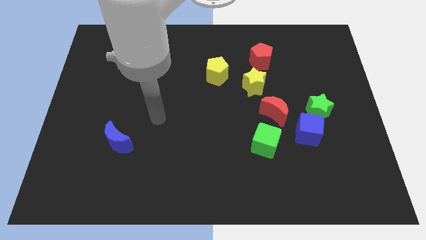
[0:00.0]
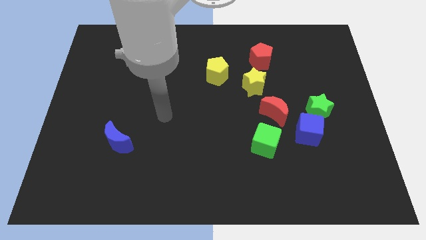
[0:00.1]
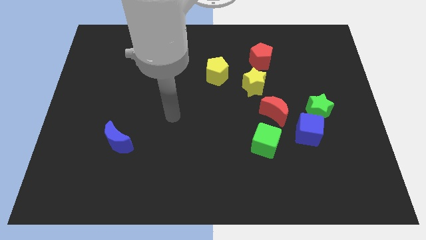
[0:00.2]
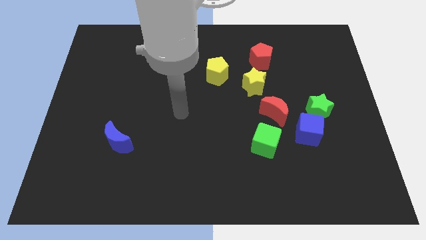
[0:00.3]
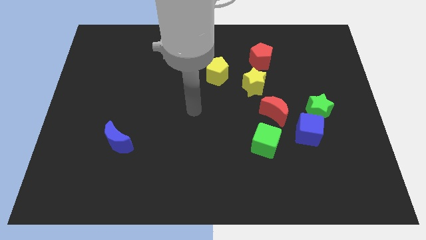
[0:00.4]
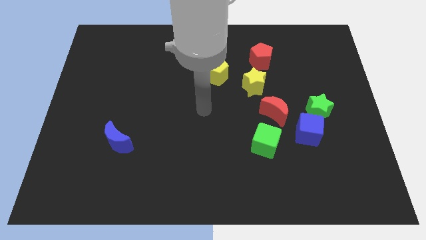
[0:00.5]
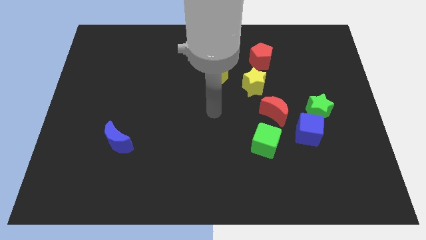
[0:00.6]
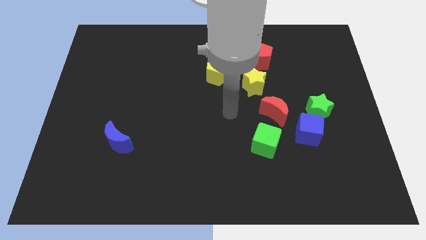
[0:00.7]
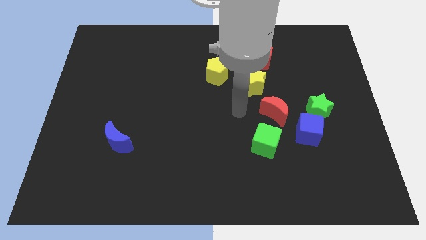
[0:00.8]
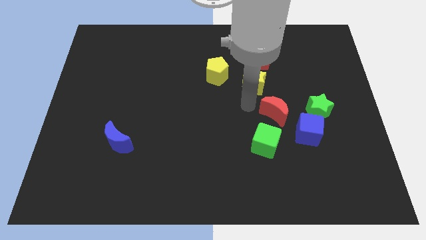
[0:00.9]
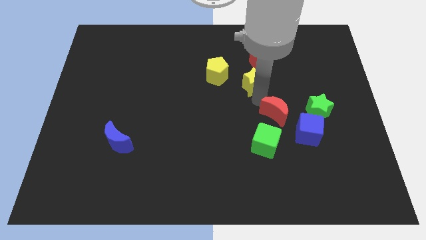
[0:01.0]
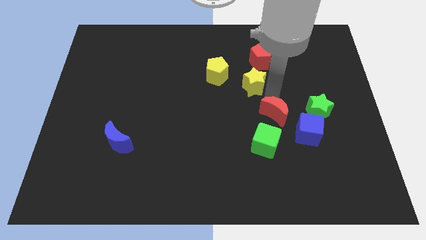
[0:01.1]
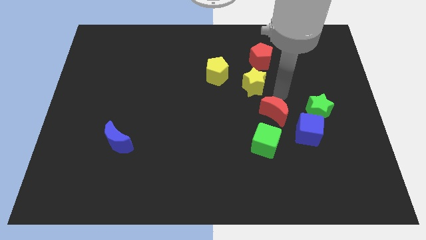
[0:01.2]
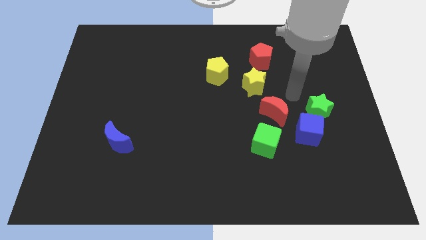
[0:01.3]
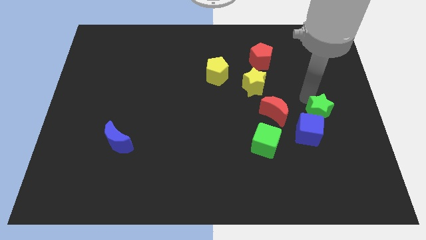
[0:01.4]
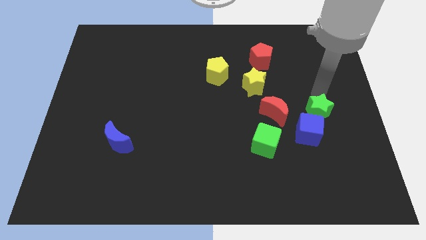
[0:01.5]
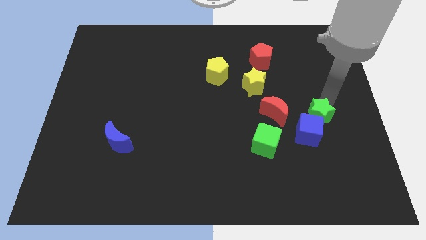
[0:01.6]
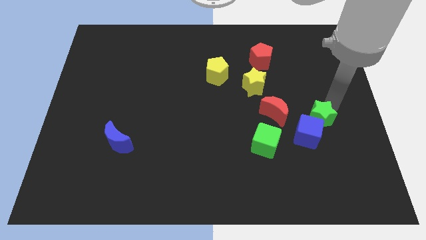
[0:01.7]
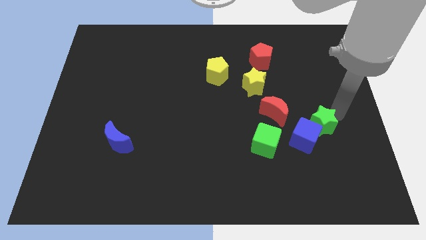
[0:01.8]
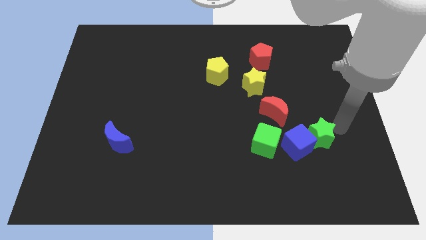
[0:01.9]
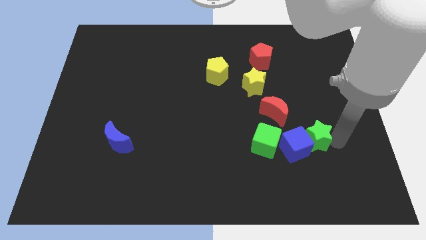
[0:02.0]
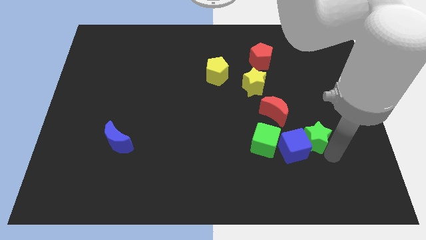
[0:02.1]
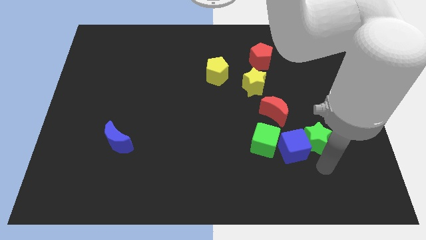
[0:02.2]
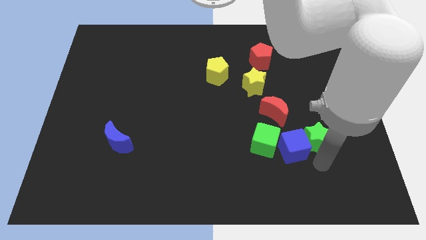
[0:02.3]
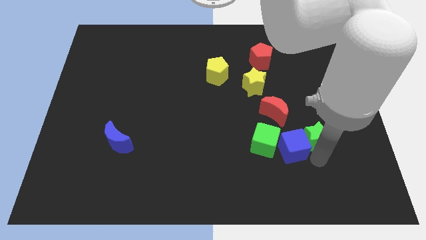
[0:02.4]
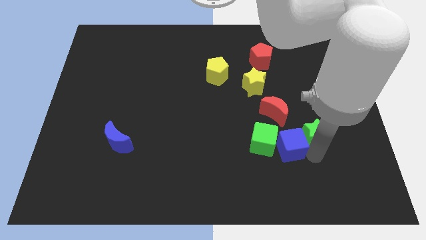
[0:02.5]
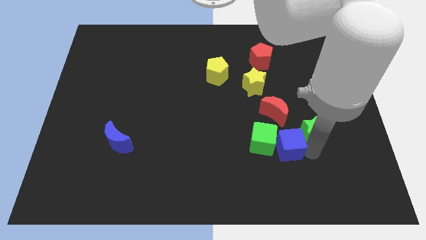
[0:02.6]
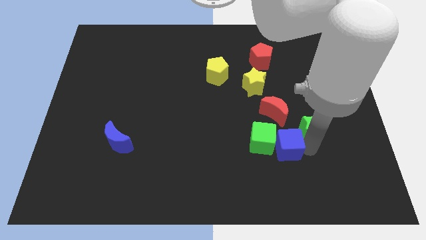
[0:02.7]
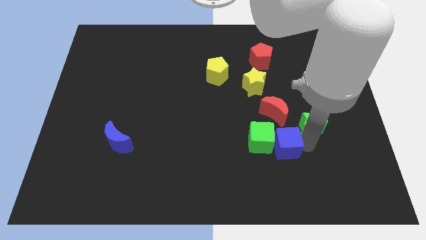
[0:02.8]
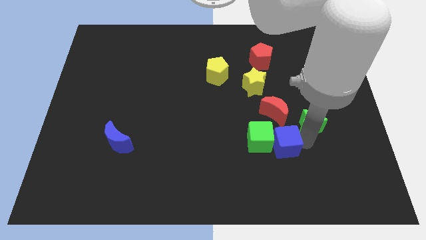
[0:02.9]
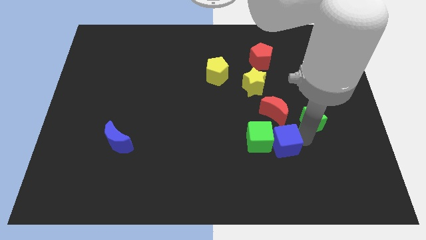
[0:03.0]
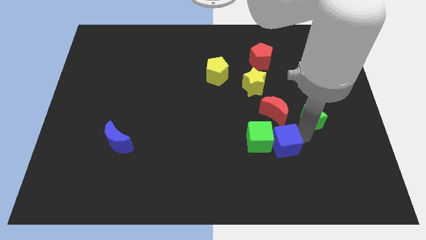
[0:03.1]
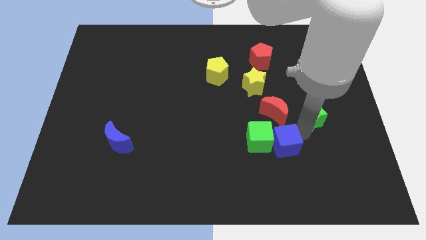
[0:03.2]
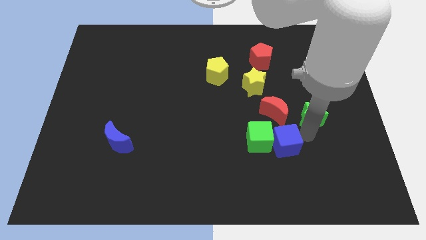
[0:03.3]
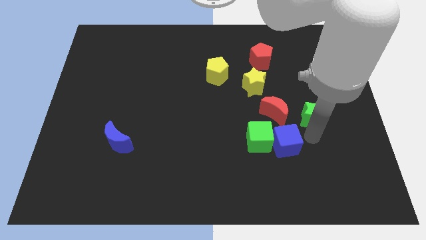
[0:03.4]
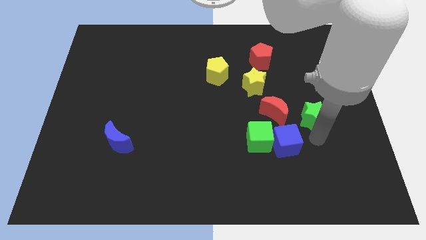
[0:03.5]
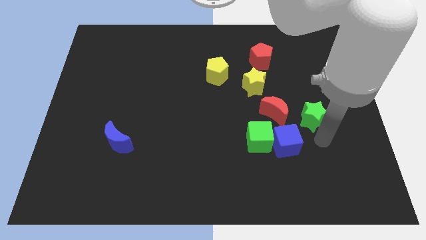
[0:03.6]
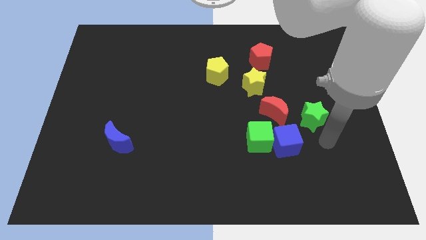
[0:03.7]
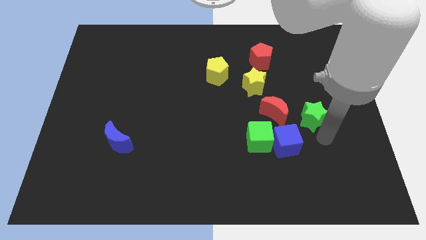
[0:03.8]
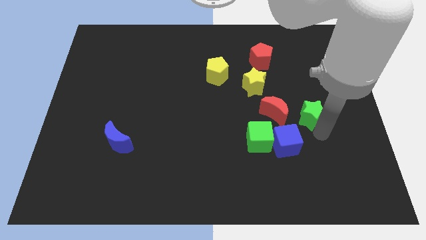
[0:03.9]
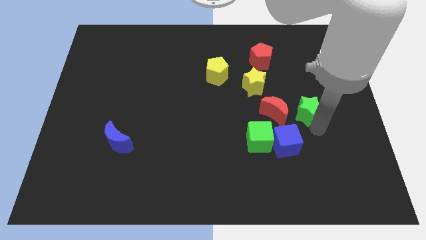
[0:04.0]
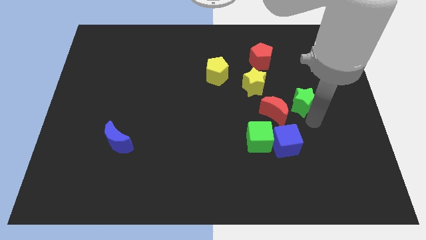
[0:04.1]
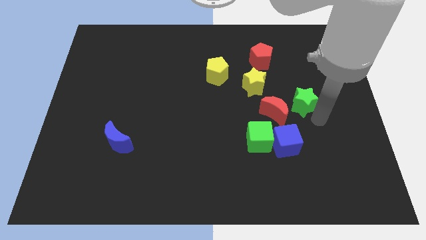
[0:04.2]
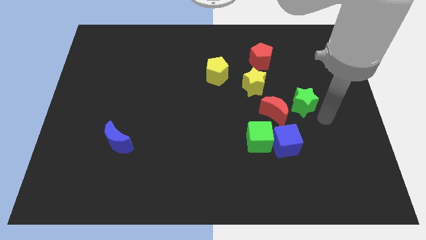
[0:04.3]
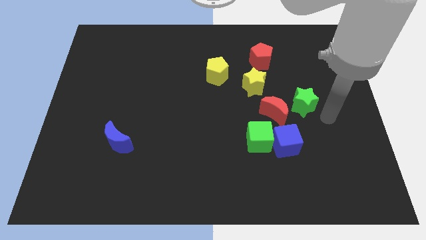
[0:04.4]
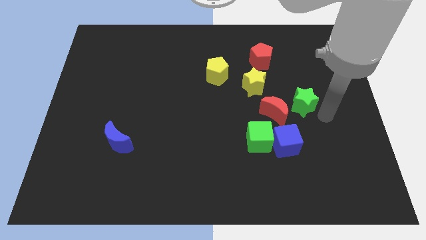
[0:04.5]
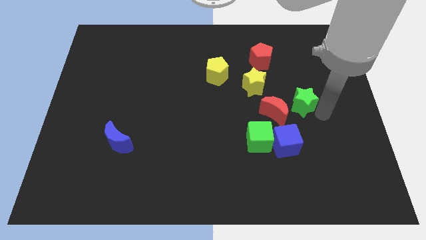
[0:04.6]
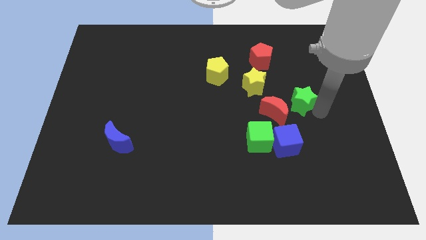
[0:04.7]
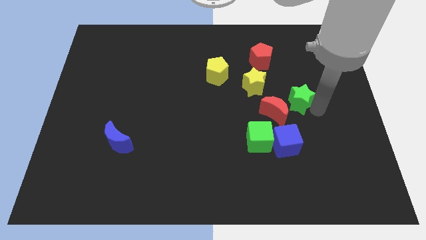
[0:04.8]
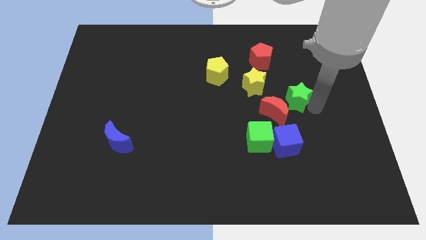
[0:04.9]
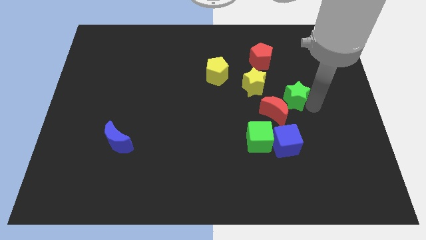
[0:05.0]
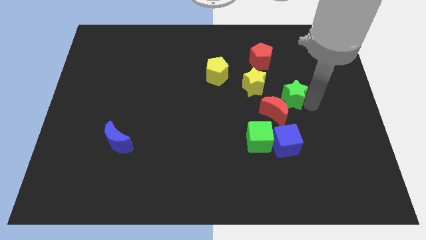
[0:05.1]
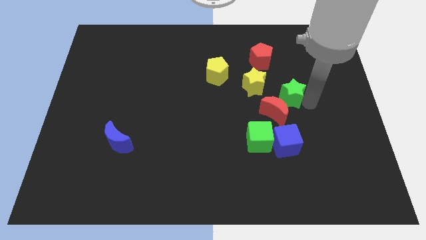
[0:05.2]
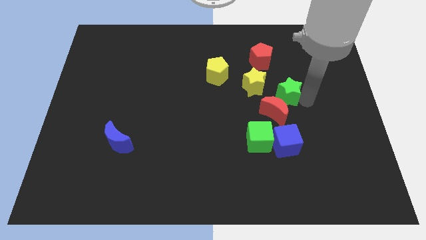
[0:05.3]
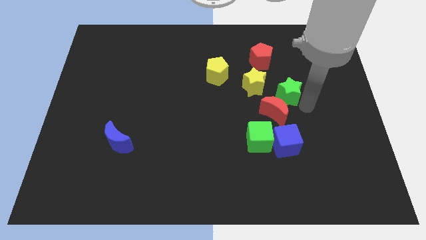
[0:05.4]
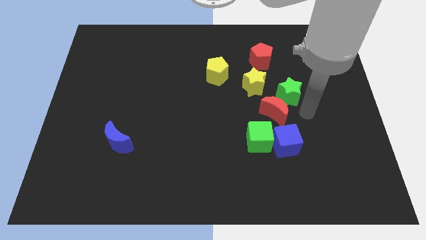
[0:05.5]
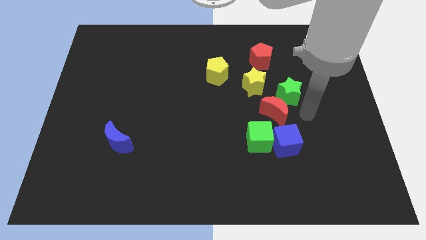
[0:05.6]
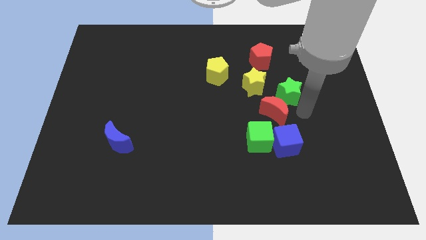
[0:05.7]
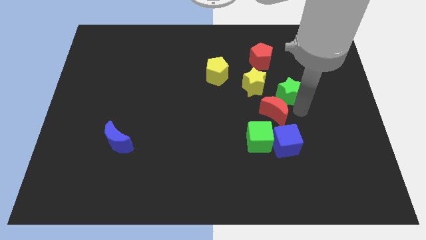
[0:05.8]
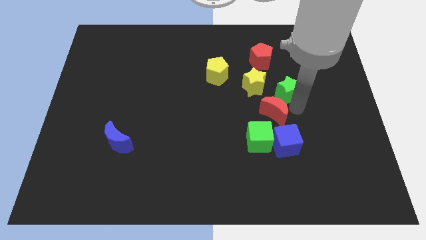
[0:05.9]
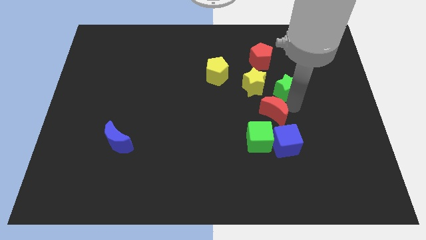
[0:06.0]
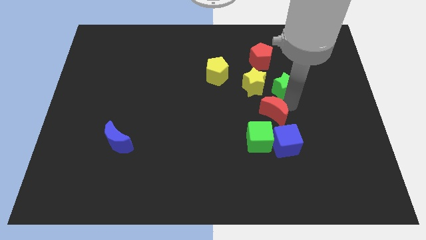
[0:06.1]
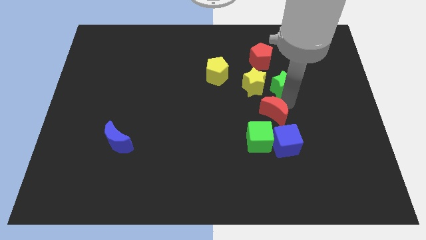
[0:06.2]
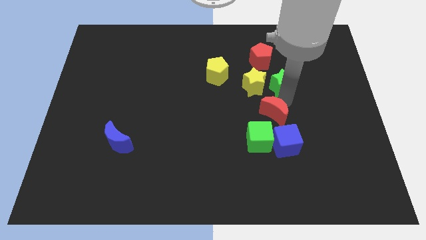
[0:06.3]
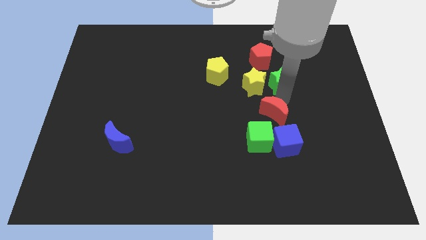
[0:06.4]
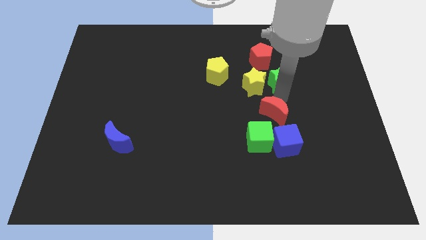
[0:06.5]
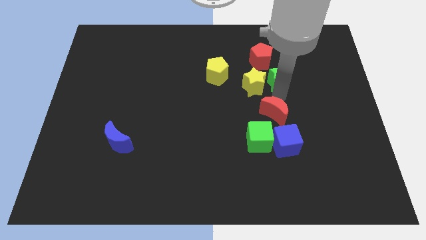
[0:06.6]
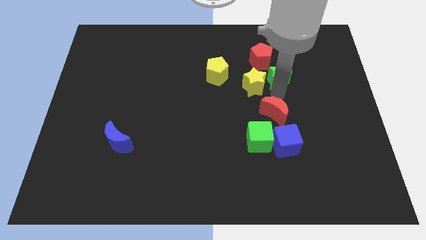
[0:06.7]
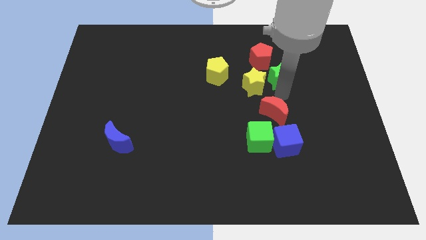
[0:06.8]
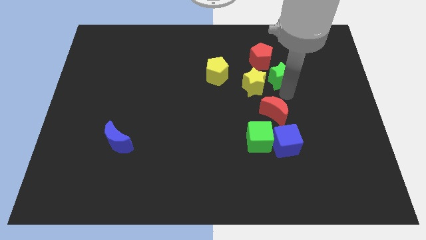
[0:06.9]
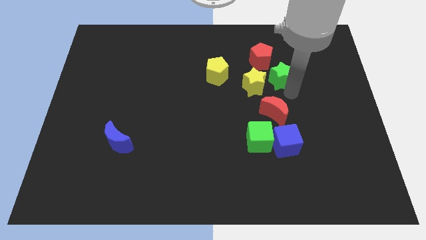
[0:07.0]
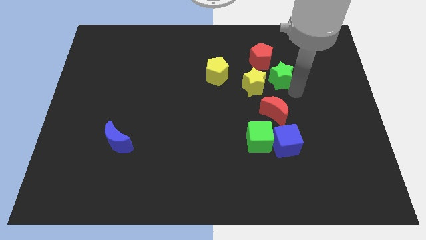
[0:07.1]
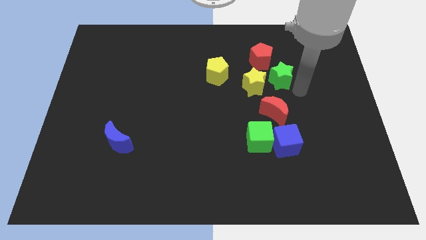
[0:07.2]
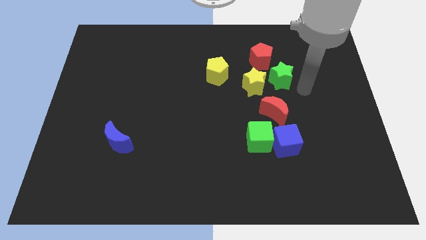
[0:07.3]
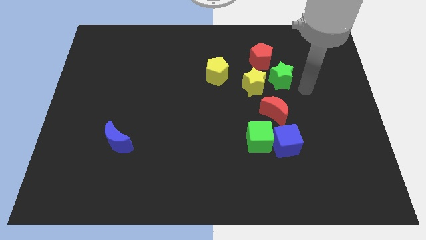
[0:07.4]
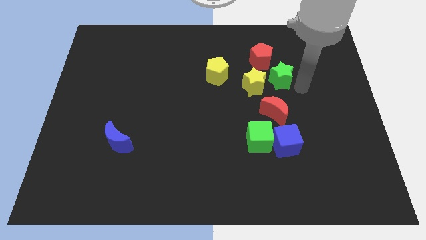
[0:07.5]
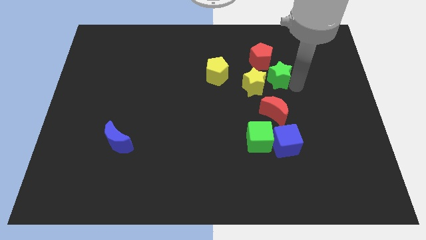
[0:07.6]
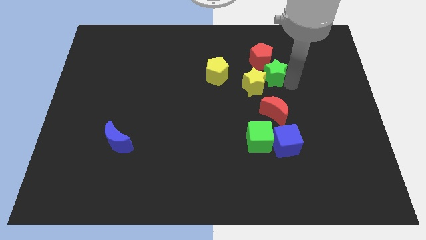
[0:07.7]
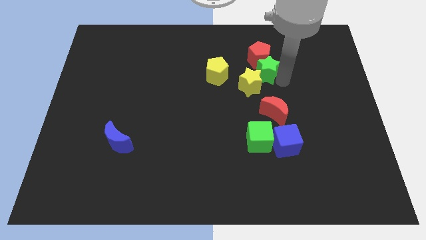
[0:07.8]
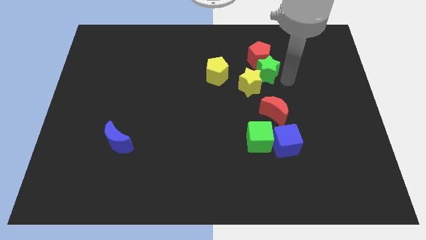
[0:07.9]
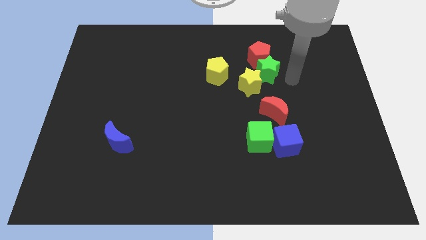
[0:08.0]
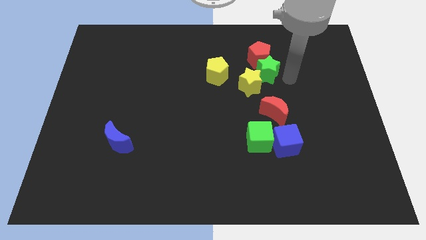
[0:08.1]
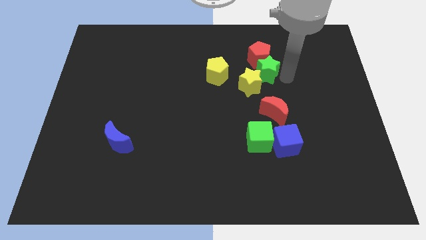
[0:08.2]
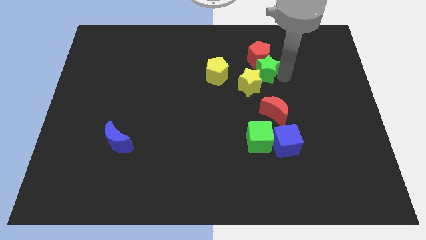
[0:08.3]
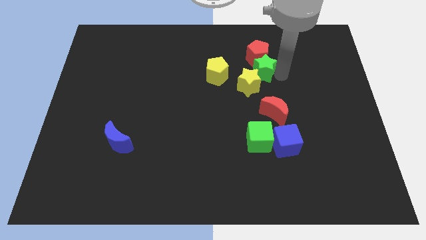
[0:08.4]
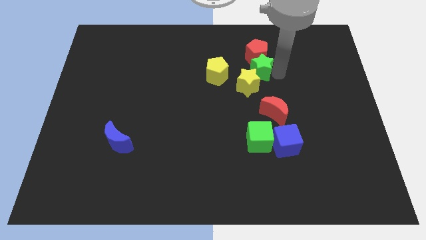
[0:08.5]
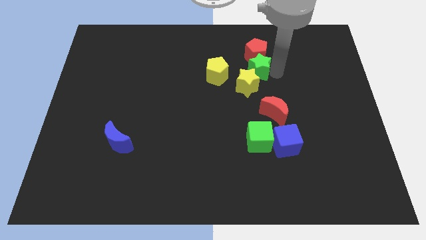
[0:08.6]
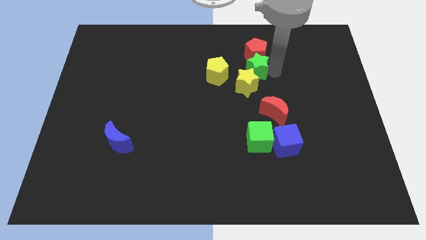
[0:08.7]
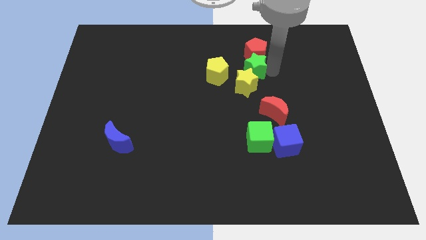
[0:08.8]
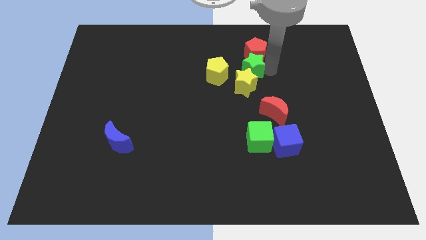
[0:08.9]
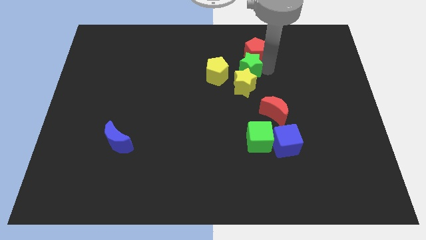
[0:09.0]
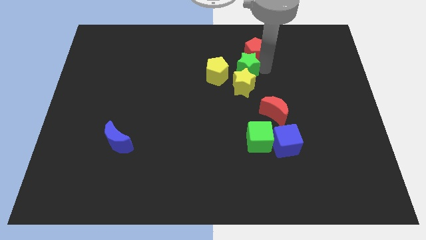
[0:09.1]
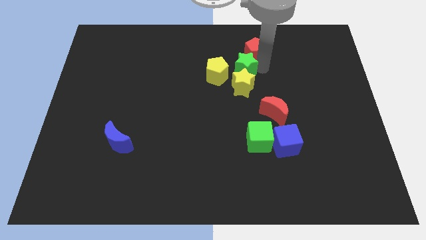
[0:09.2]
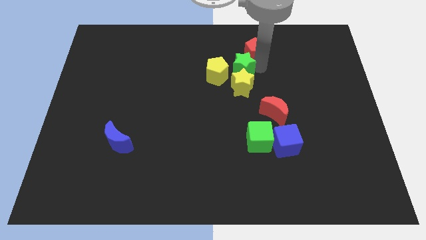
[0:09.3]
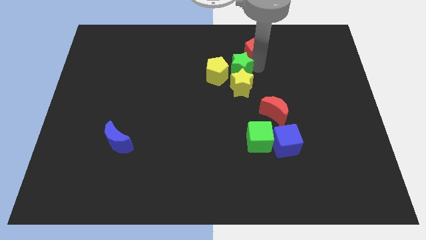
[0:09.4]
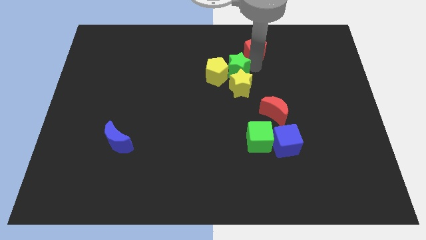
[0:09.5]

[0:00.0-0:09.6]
put the green star next to the yellow pentagon
